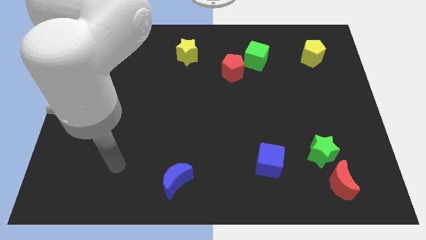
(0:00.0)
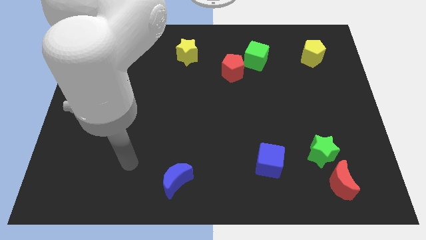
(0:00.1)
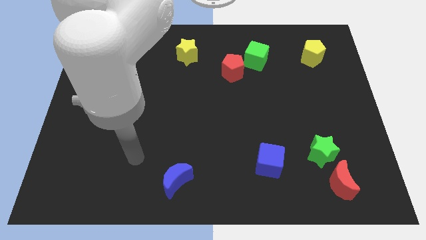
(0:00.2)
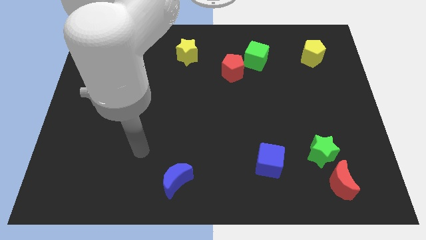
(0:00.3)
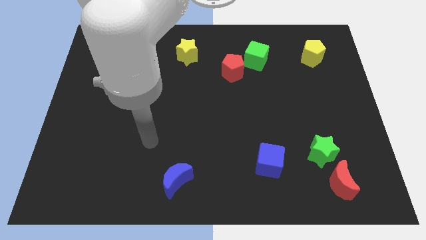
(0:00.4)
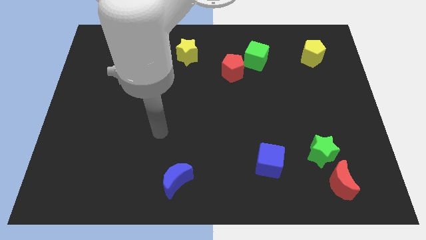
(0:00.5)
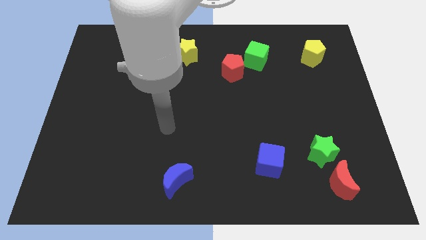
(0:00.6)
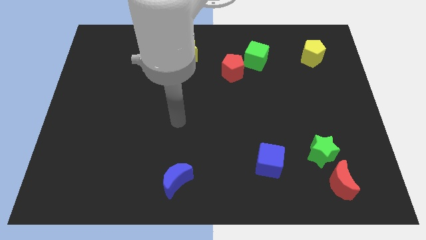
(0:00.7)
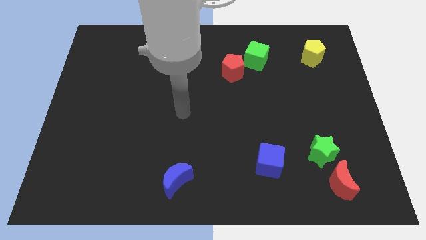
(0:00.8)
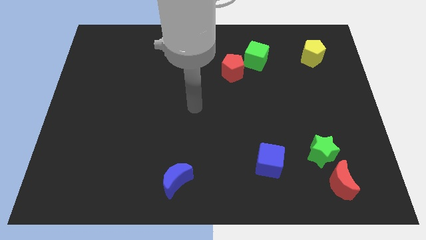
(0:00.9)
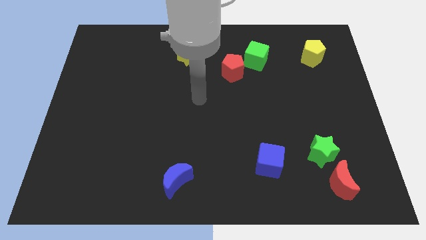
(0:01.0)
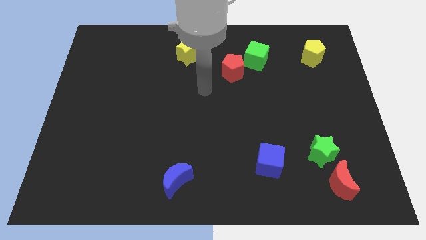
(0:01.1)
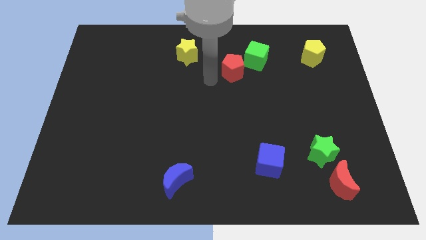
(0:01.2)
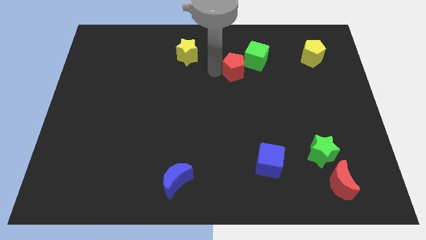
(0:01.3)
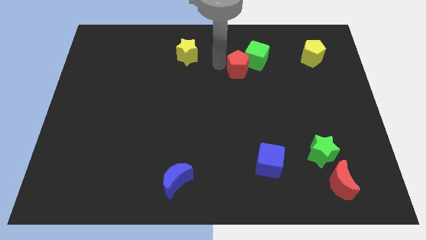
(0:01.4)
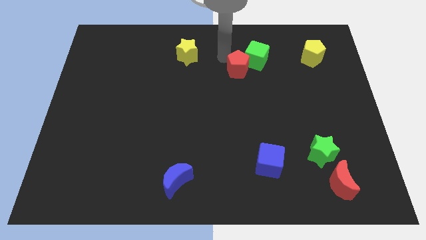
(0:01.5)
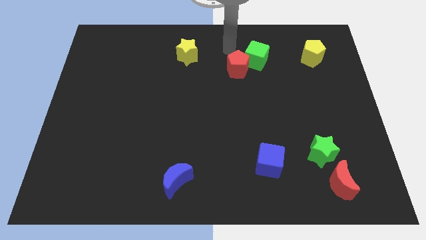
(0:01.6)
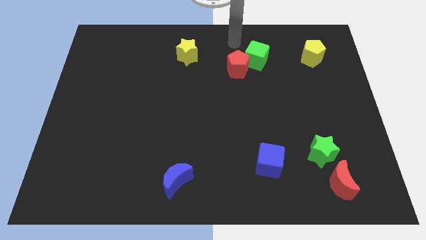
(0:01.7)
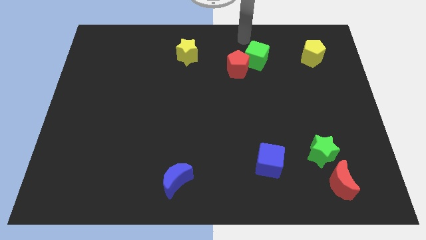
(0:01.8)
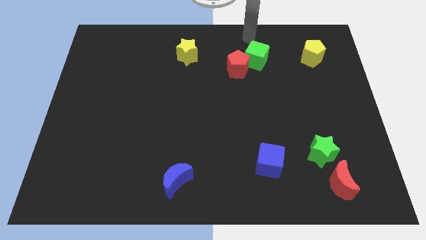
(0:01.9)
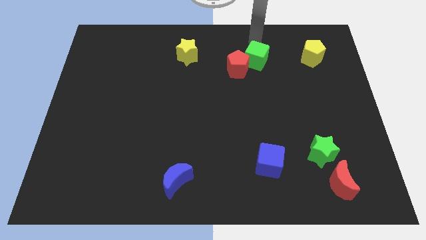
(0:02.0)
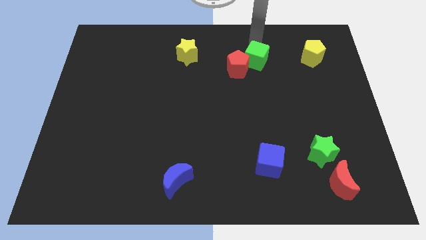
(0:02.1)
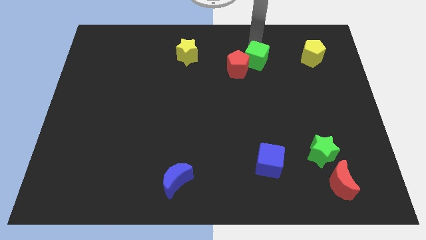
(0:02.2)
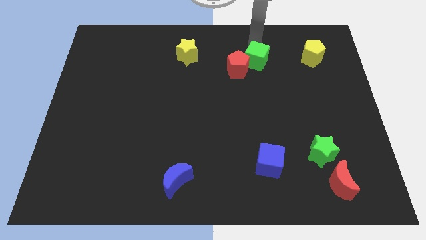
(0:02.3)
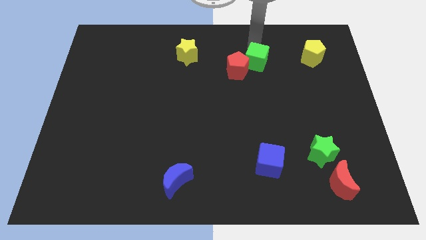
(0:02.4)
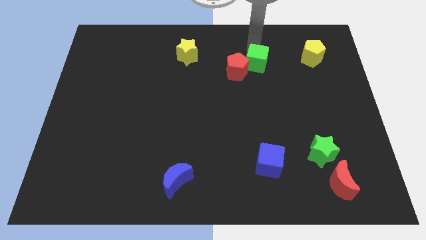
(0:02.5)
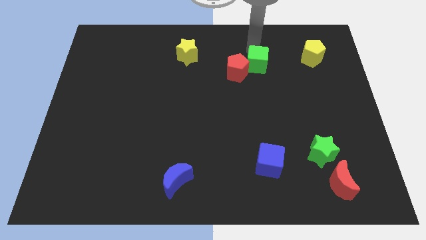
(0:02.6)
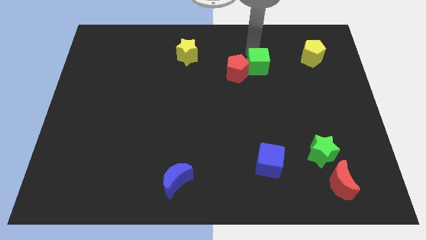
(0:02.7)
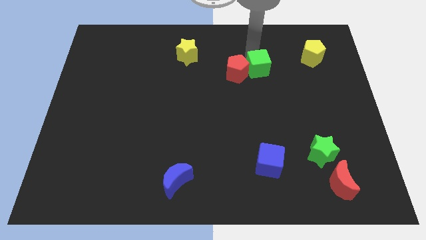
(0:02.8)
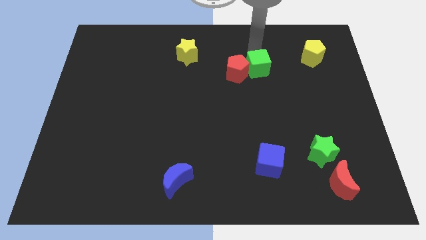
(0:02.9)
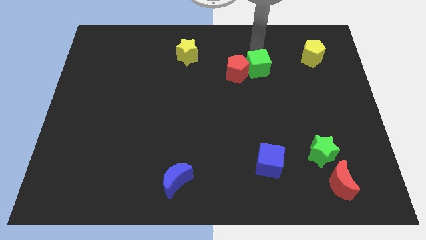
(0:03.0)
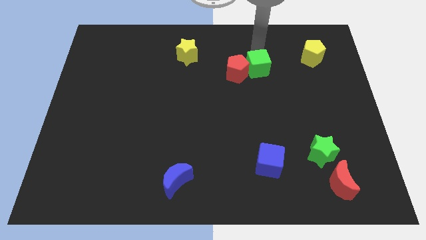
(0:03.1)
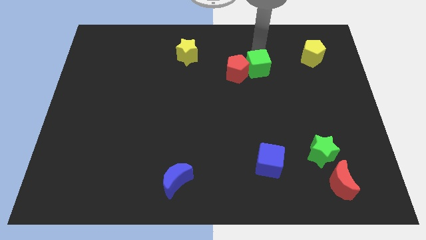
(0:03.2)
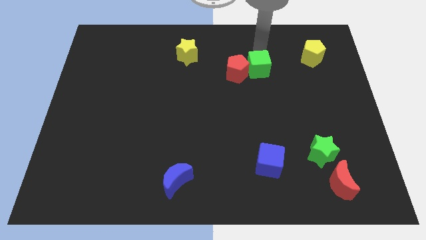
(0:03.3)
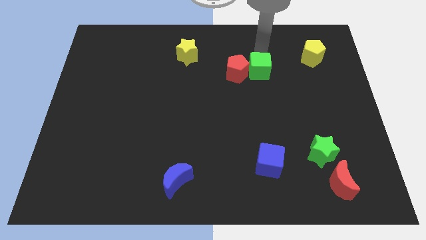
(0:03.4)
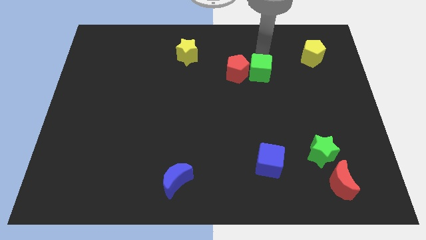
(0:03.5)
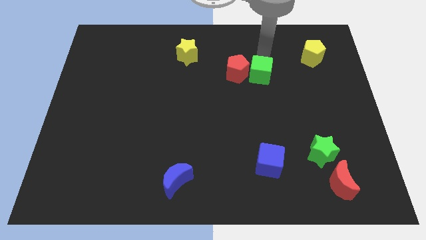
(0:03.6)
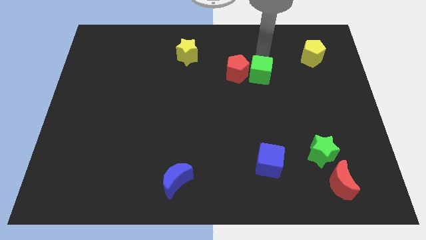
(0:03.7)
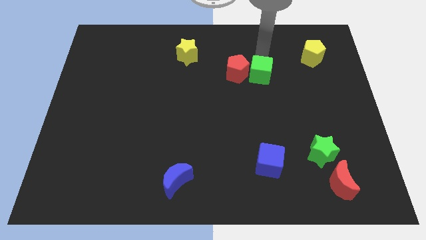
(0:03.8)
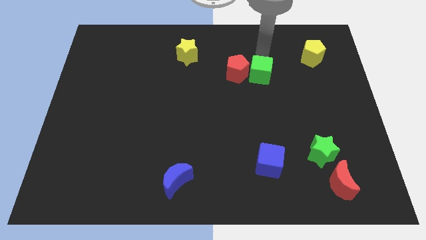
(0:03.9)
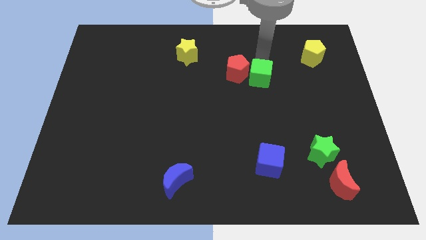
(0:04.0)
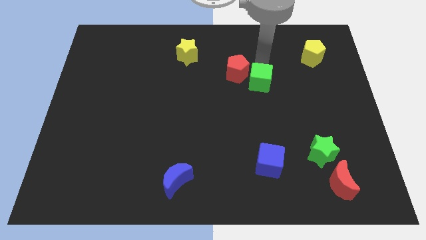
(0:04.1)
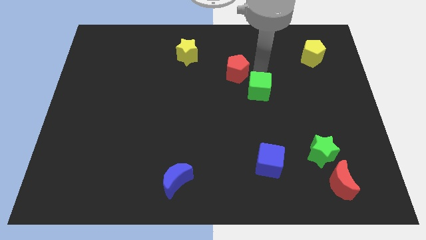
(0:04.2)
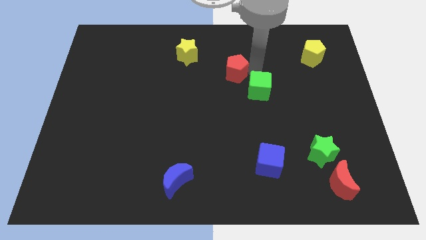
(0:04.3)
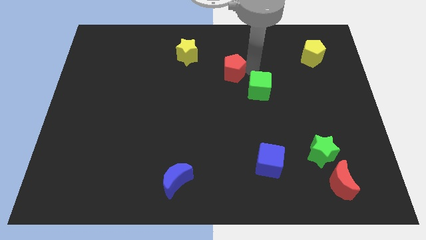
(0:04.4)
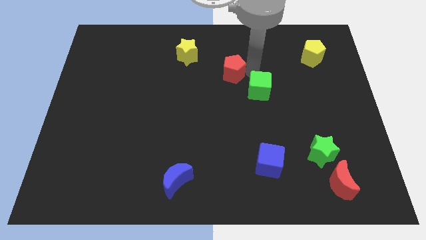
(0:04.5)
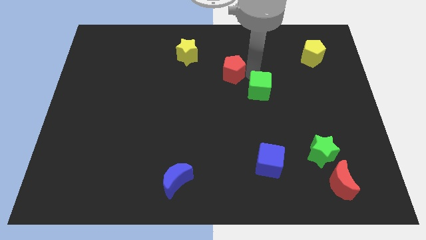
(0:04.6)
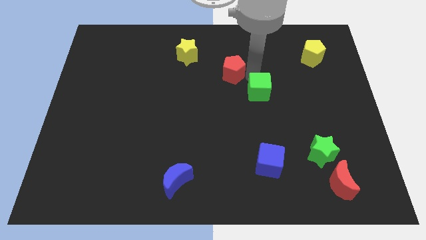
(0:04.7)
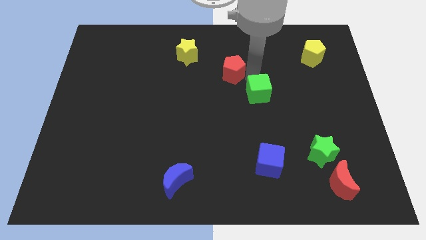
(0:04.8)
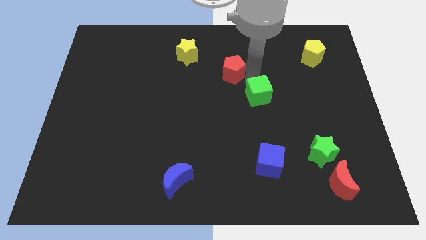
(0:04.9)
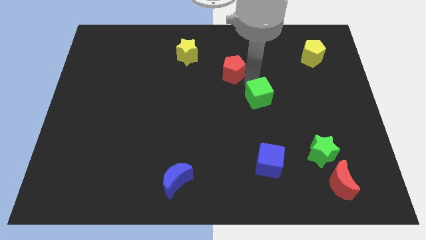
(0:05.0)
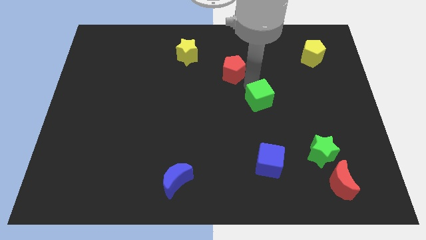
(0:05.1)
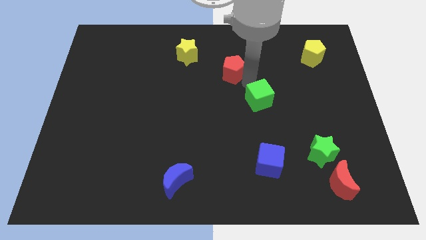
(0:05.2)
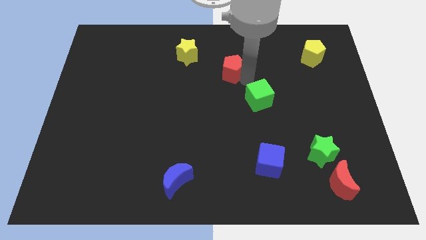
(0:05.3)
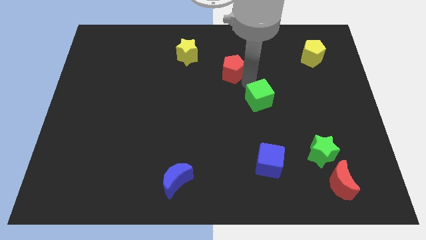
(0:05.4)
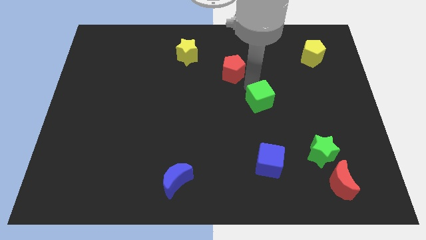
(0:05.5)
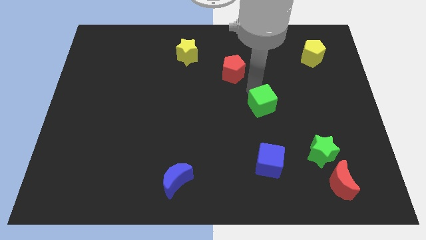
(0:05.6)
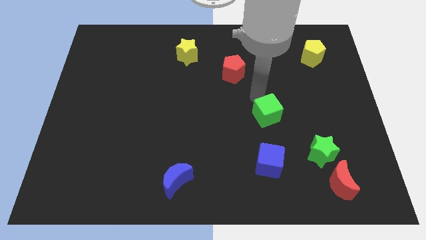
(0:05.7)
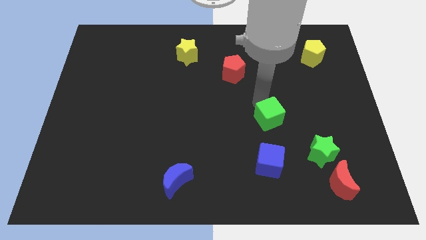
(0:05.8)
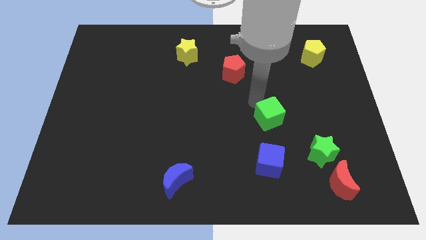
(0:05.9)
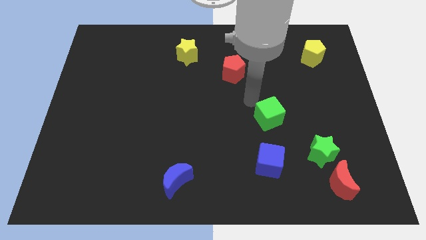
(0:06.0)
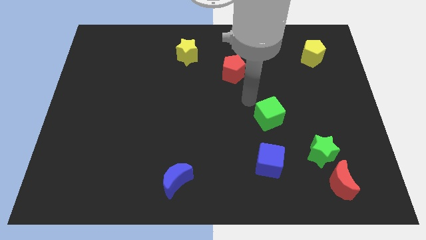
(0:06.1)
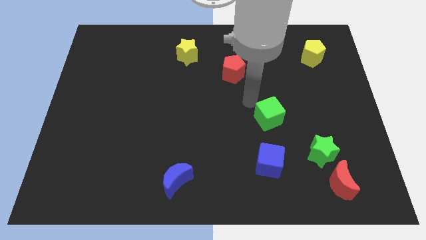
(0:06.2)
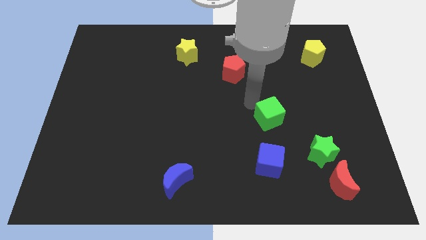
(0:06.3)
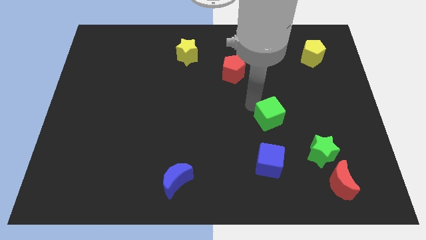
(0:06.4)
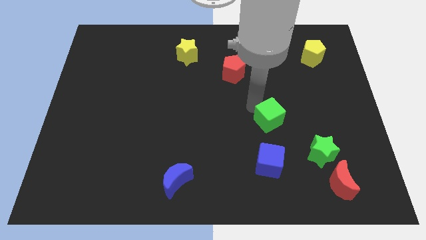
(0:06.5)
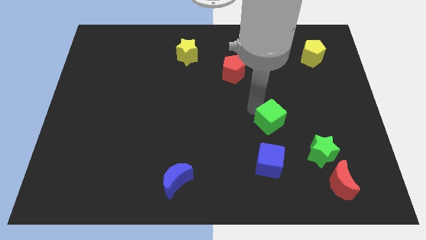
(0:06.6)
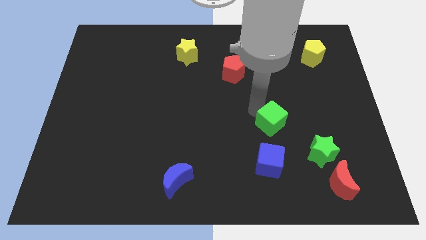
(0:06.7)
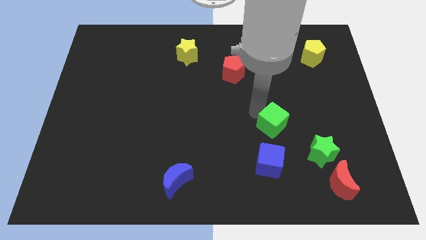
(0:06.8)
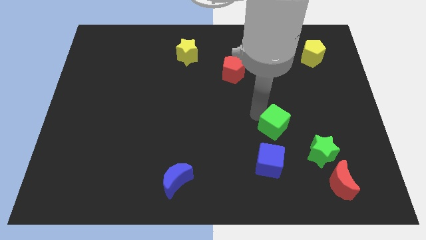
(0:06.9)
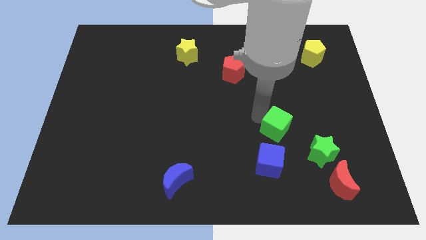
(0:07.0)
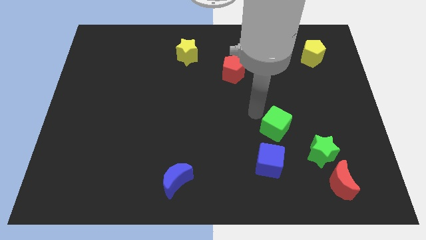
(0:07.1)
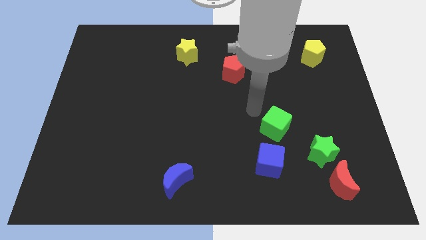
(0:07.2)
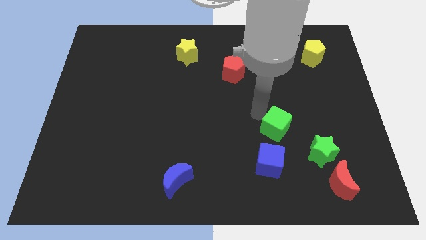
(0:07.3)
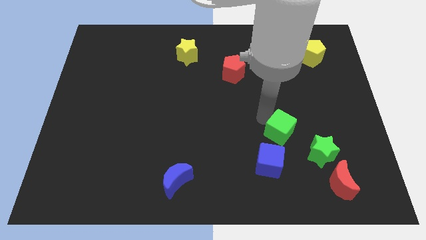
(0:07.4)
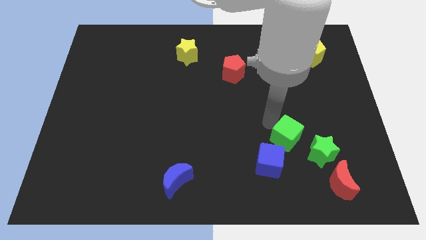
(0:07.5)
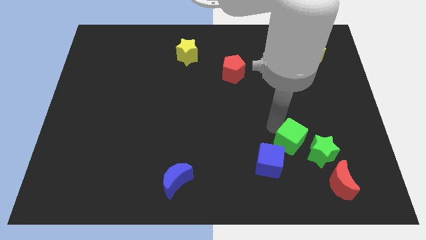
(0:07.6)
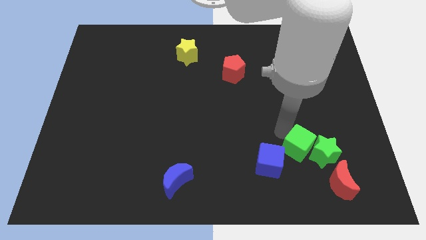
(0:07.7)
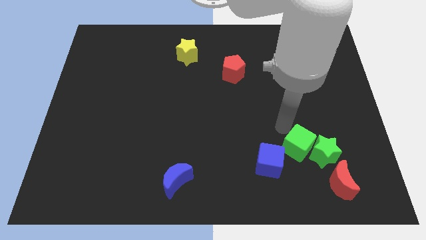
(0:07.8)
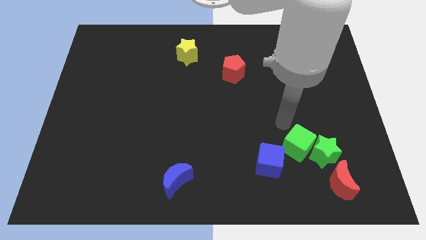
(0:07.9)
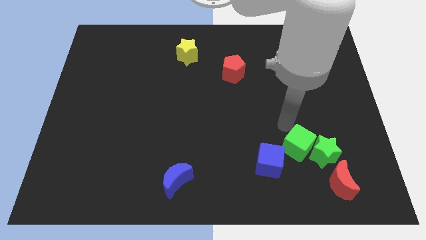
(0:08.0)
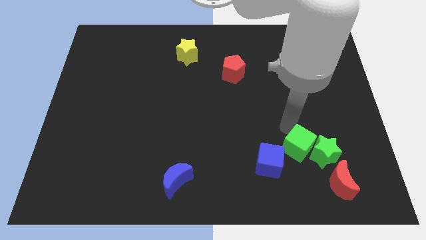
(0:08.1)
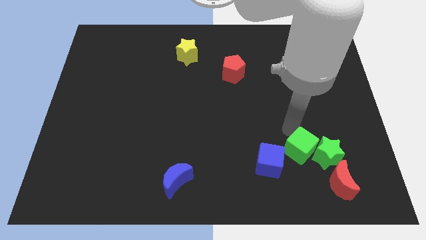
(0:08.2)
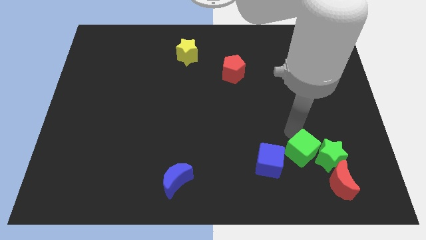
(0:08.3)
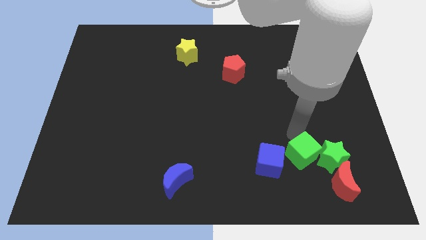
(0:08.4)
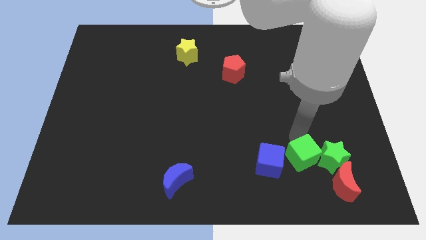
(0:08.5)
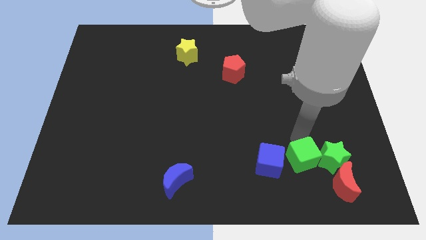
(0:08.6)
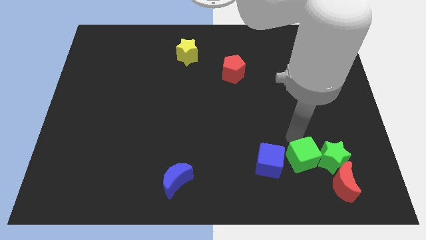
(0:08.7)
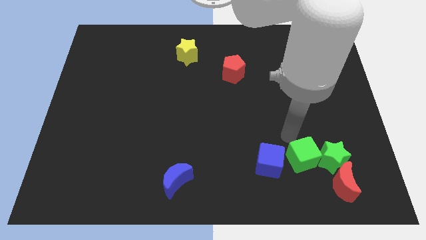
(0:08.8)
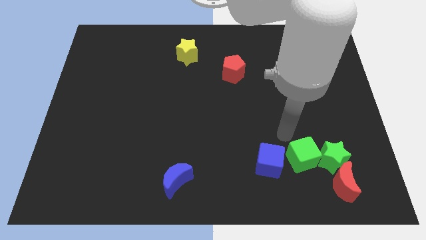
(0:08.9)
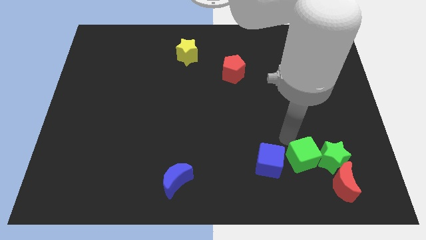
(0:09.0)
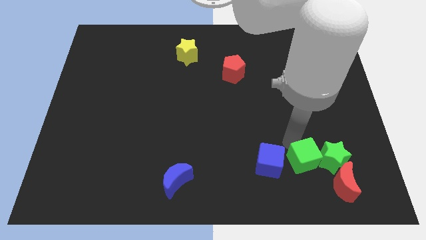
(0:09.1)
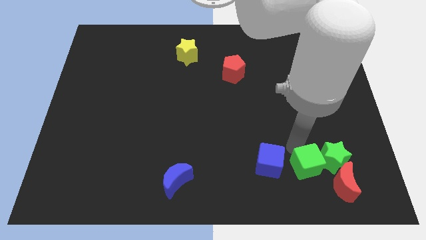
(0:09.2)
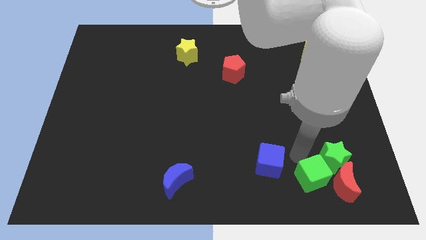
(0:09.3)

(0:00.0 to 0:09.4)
put the green cube close to the red moon
